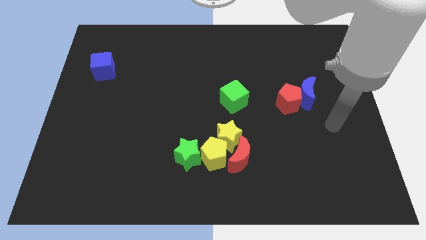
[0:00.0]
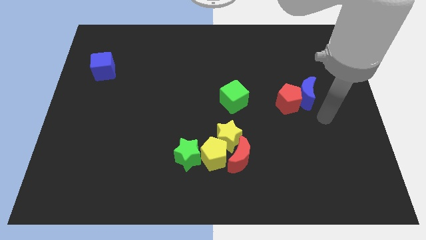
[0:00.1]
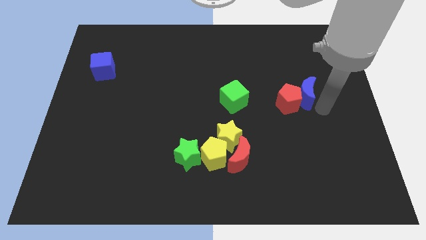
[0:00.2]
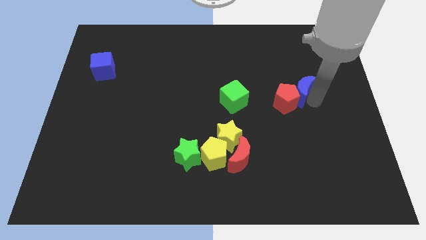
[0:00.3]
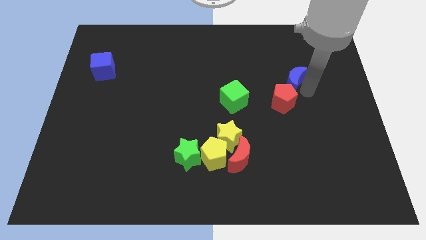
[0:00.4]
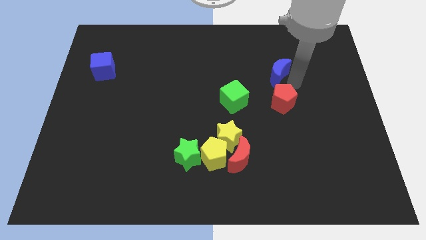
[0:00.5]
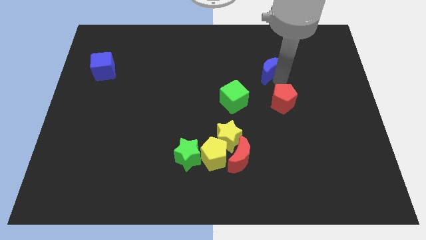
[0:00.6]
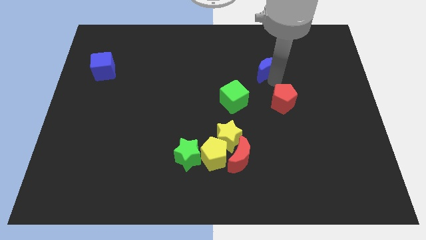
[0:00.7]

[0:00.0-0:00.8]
separate the red pentagon from the blue moon

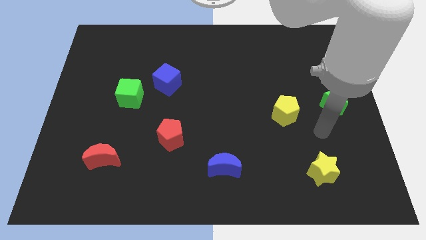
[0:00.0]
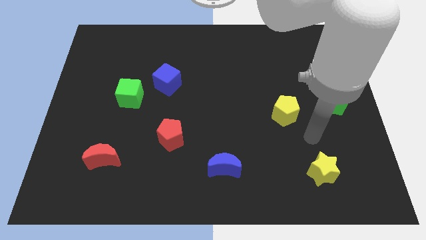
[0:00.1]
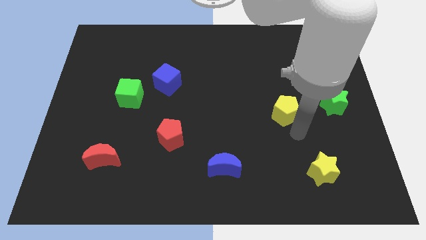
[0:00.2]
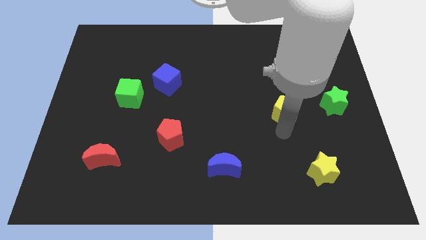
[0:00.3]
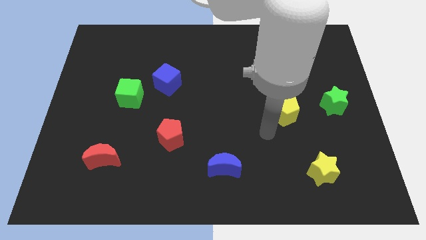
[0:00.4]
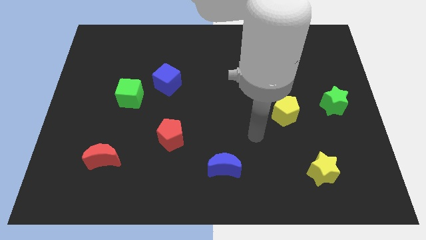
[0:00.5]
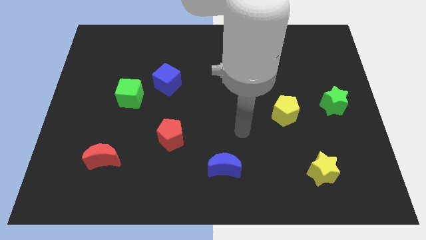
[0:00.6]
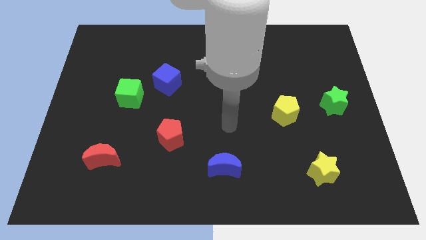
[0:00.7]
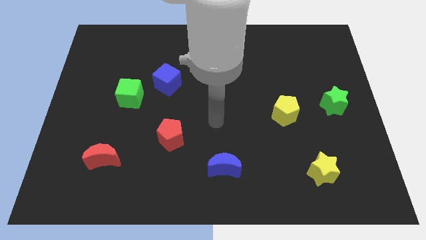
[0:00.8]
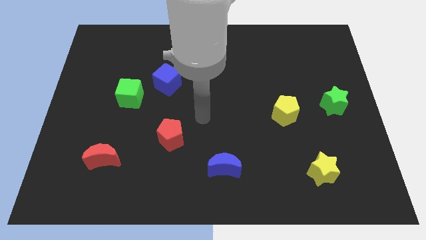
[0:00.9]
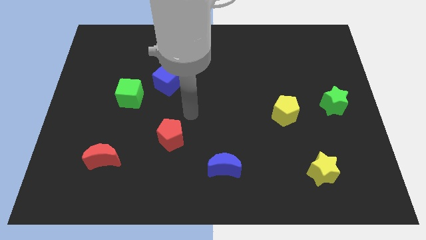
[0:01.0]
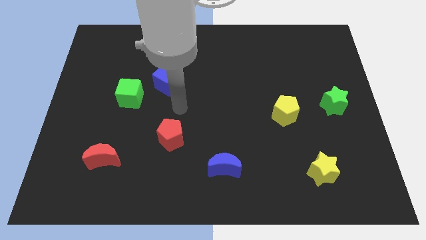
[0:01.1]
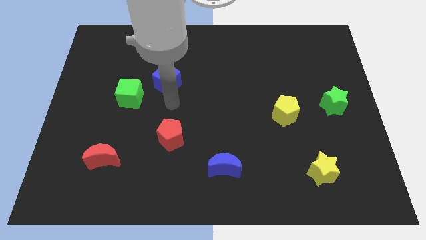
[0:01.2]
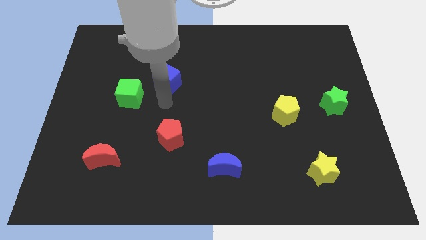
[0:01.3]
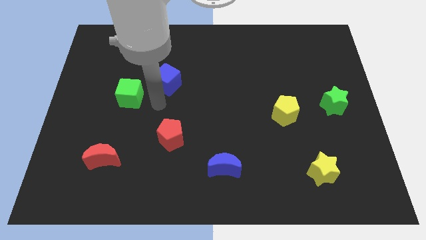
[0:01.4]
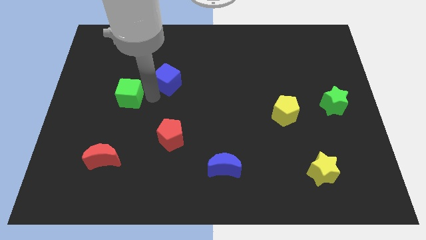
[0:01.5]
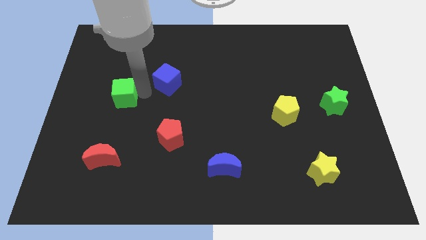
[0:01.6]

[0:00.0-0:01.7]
separate the blue cube from the green cube

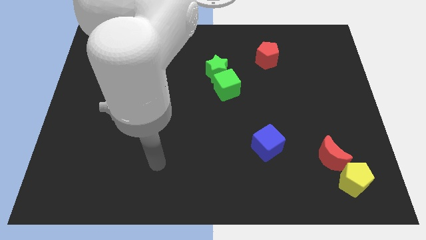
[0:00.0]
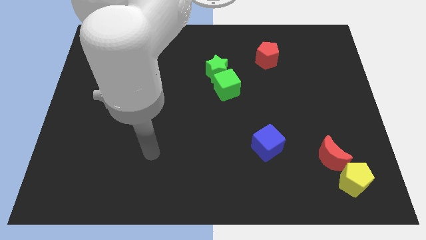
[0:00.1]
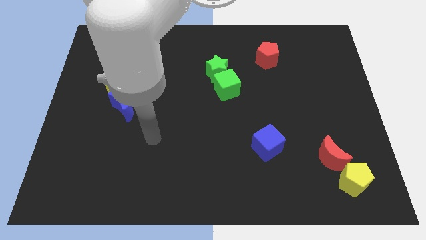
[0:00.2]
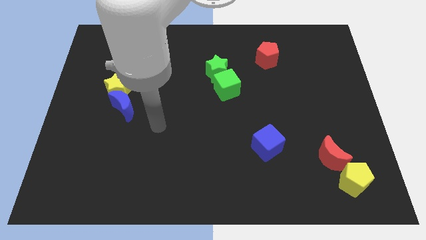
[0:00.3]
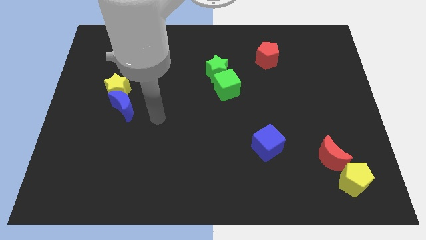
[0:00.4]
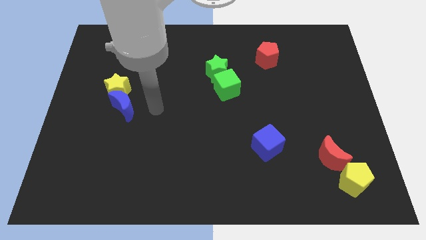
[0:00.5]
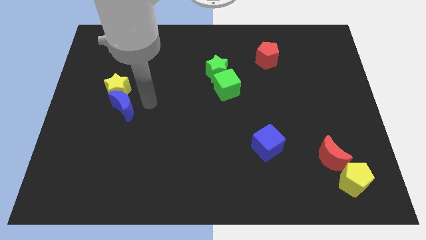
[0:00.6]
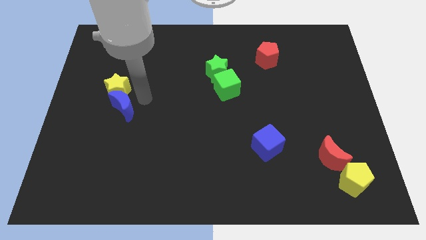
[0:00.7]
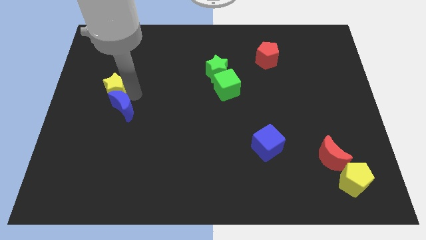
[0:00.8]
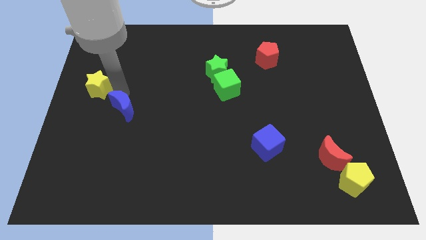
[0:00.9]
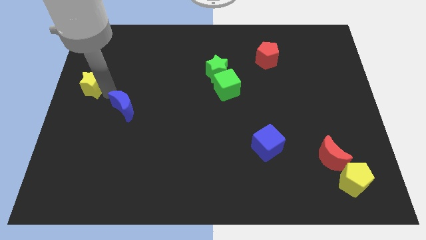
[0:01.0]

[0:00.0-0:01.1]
move the blue moon away from the yellow star

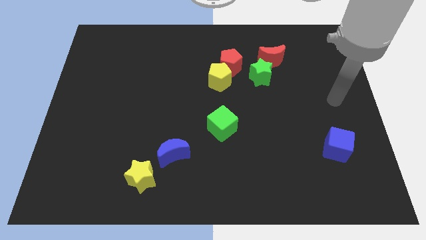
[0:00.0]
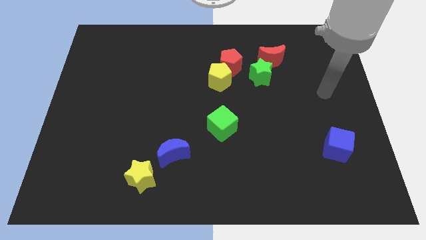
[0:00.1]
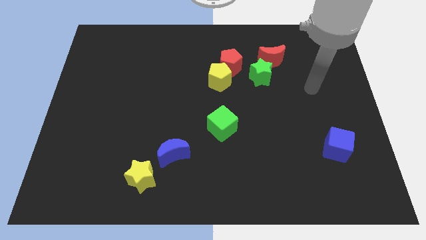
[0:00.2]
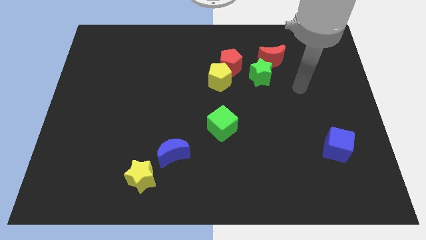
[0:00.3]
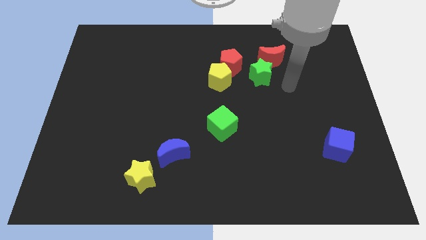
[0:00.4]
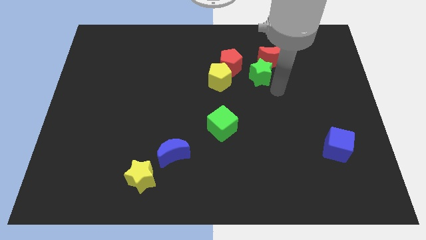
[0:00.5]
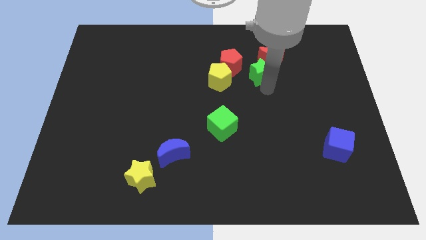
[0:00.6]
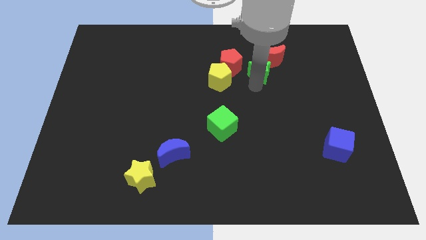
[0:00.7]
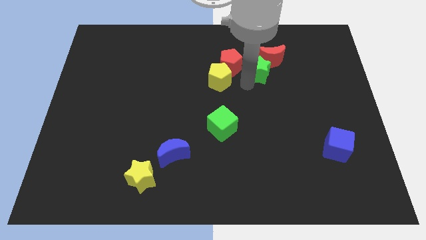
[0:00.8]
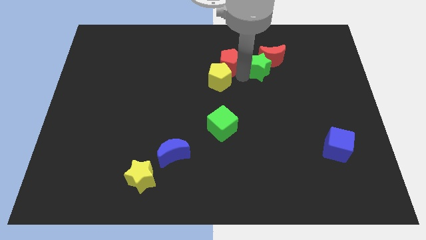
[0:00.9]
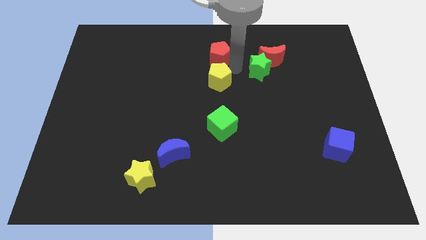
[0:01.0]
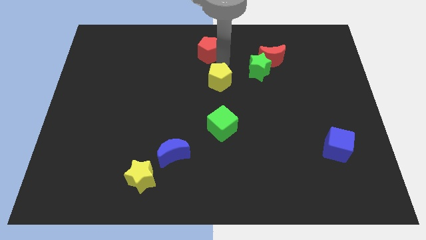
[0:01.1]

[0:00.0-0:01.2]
pull the yellow pentagon apart from the red pentagon

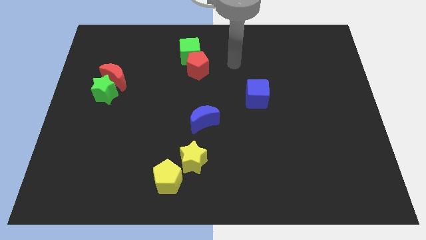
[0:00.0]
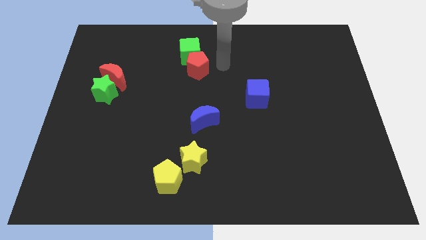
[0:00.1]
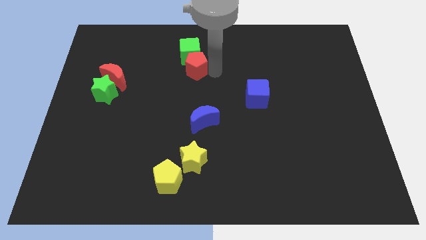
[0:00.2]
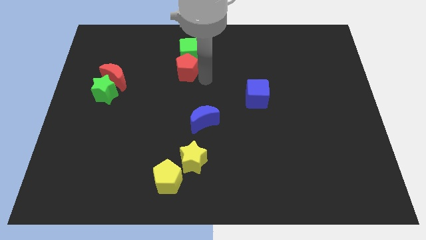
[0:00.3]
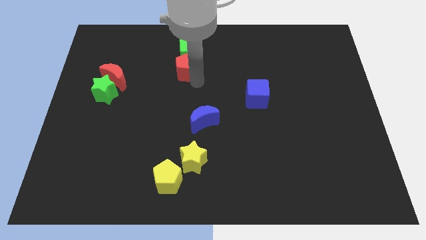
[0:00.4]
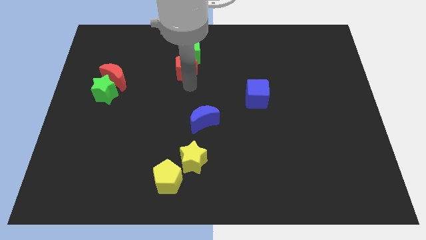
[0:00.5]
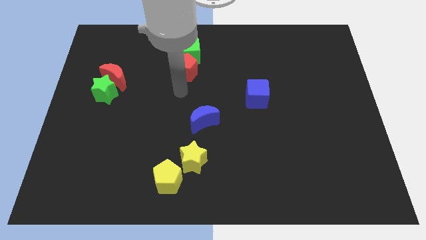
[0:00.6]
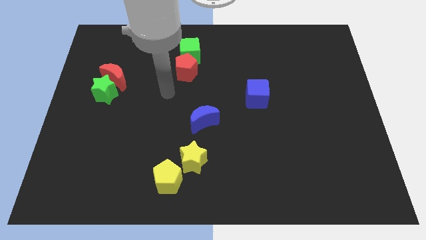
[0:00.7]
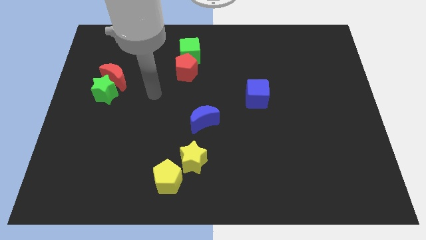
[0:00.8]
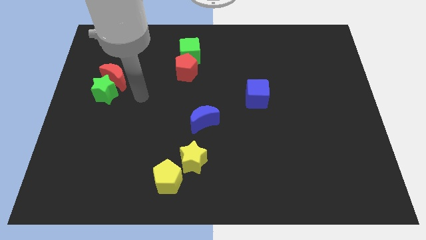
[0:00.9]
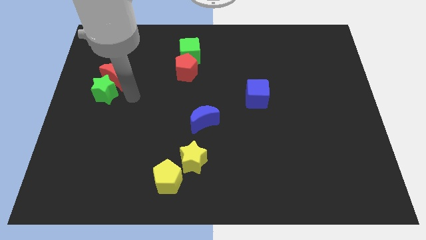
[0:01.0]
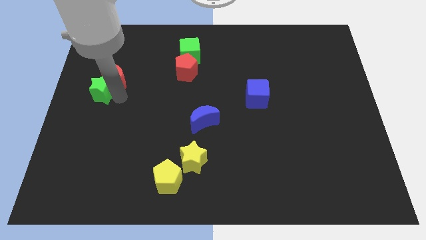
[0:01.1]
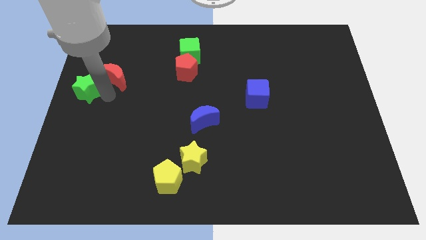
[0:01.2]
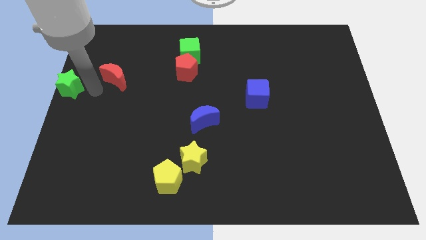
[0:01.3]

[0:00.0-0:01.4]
move the red moon away from the green star

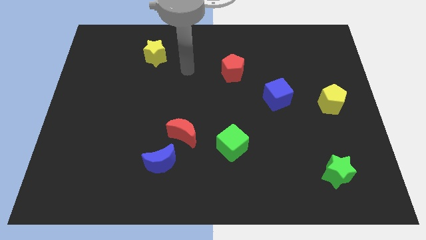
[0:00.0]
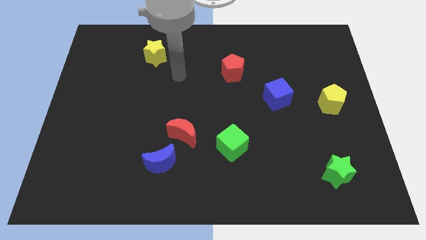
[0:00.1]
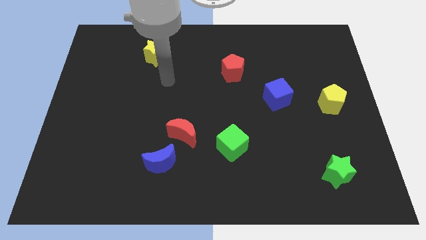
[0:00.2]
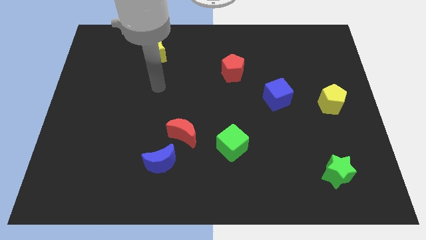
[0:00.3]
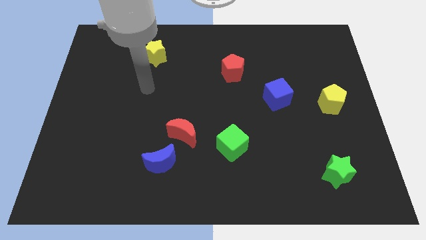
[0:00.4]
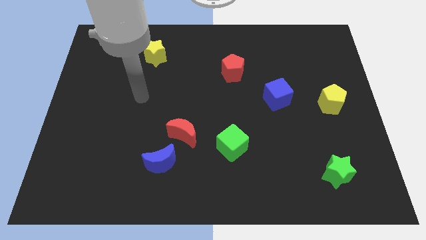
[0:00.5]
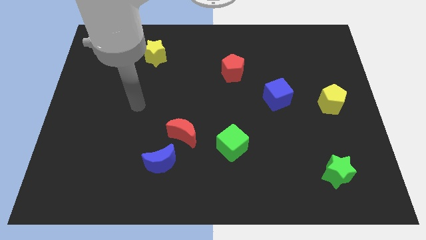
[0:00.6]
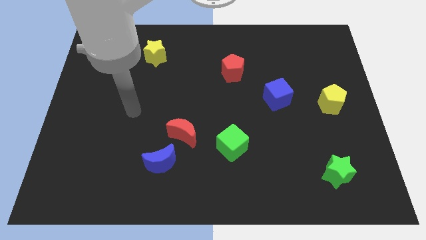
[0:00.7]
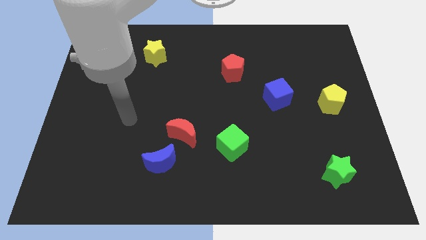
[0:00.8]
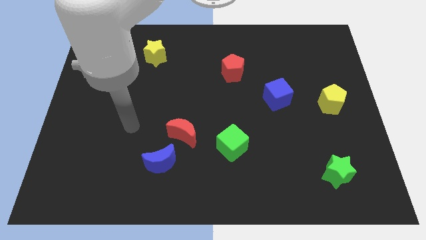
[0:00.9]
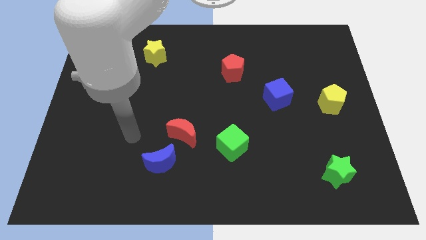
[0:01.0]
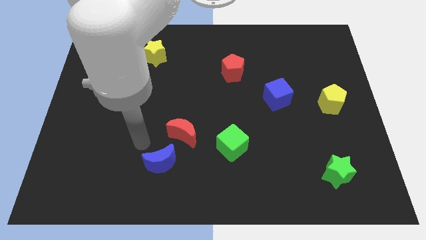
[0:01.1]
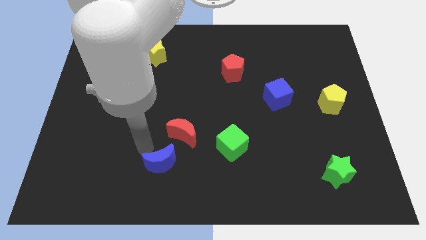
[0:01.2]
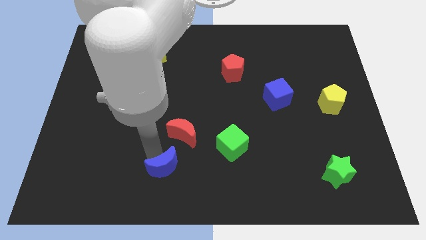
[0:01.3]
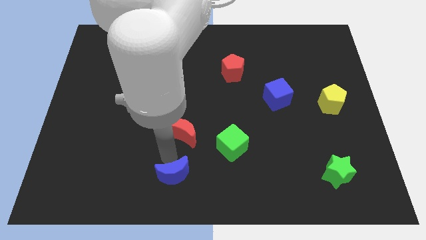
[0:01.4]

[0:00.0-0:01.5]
pull the red moon apart from the blue moon

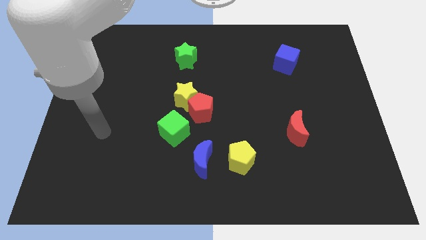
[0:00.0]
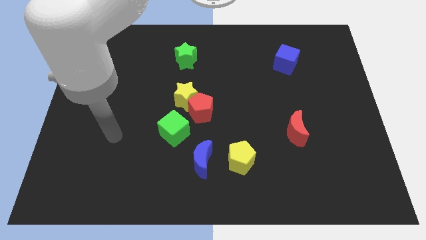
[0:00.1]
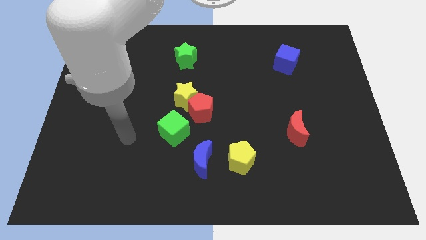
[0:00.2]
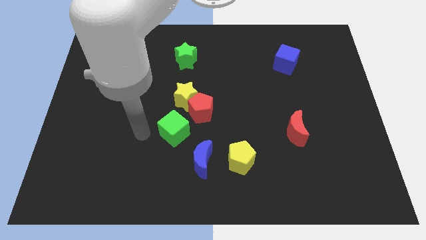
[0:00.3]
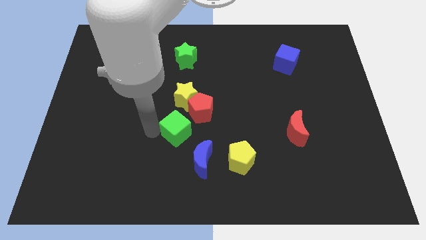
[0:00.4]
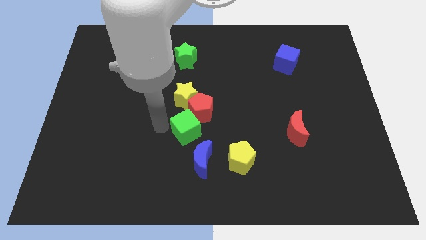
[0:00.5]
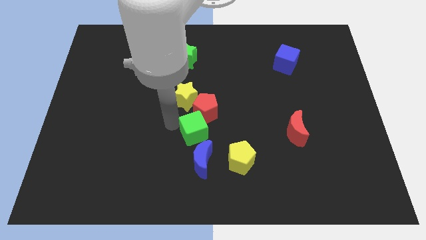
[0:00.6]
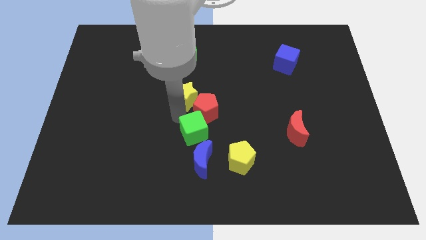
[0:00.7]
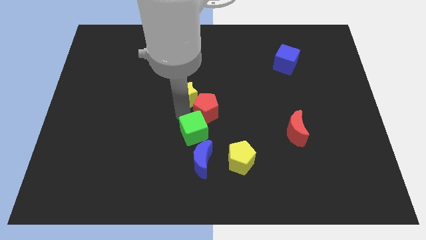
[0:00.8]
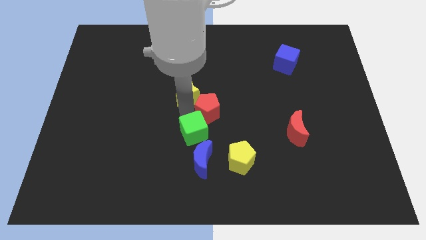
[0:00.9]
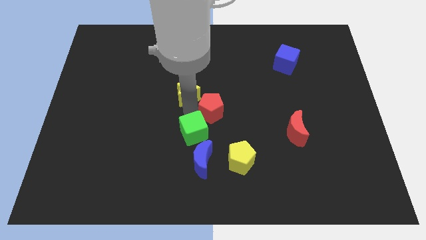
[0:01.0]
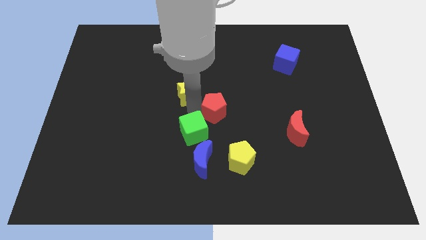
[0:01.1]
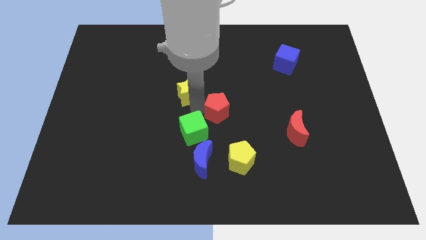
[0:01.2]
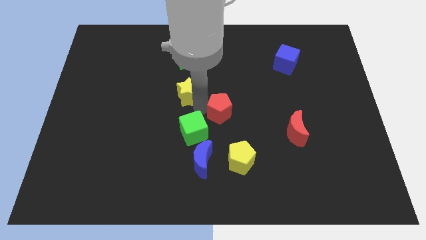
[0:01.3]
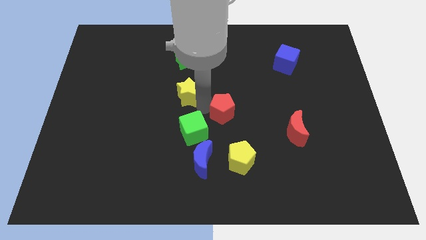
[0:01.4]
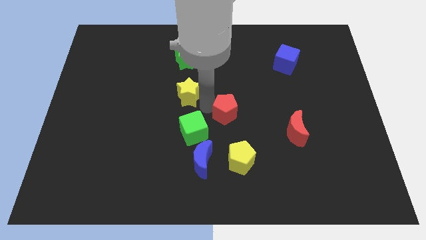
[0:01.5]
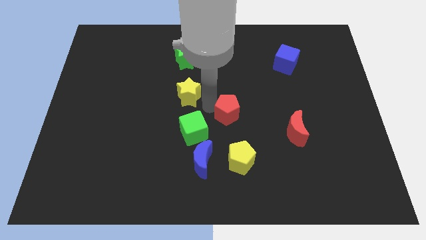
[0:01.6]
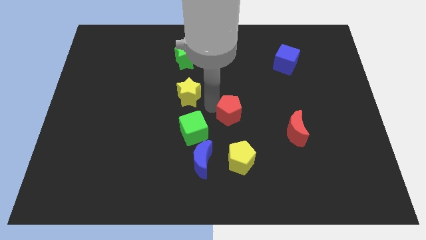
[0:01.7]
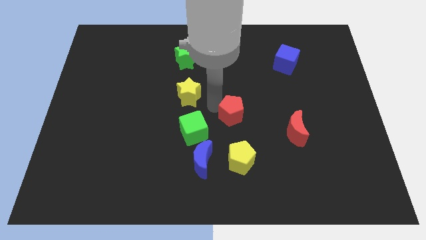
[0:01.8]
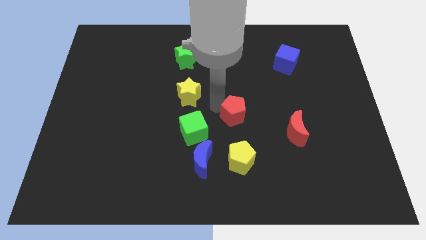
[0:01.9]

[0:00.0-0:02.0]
pull the red pentagon apart from the yellow star and green cube
